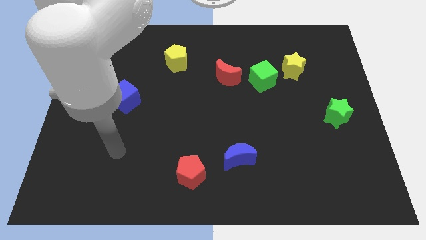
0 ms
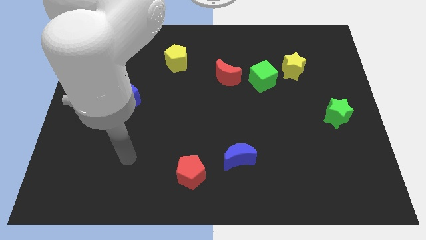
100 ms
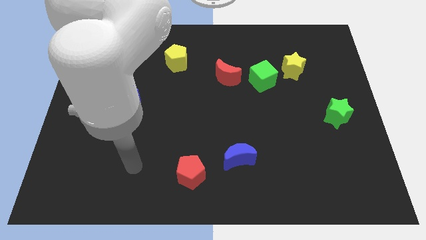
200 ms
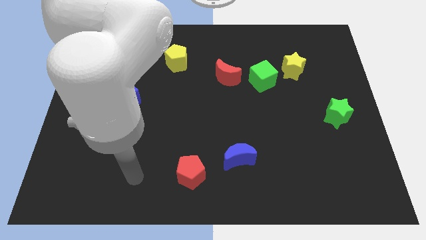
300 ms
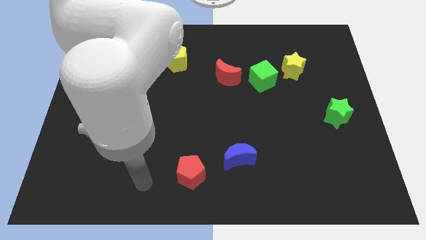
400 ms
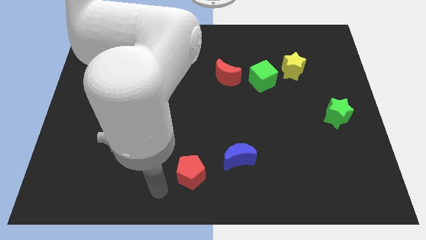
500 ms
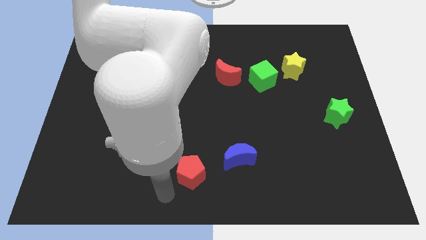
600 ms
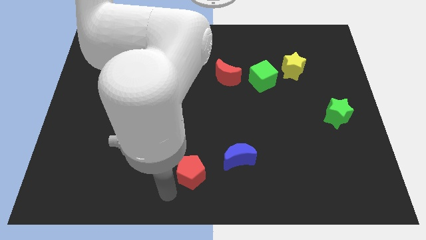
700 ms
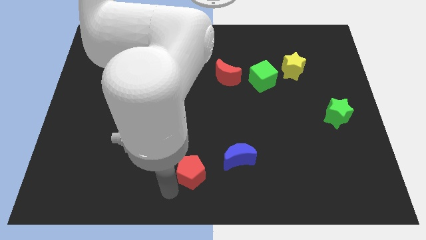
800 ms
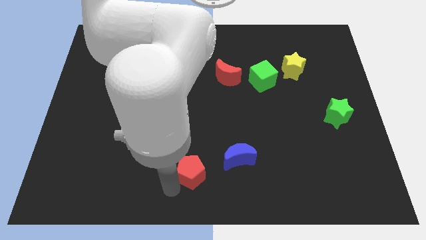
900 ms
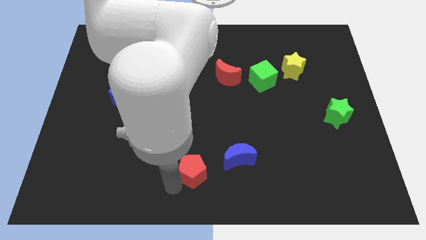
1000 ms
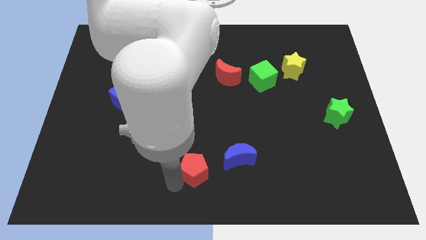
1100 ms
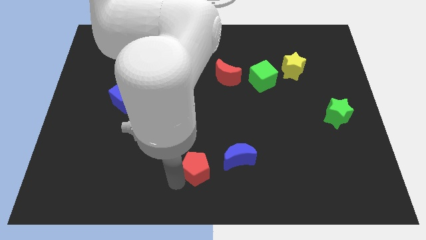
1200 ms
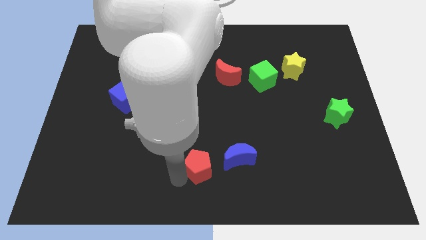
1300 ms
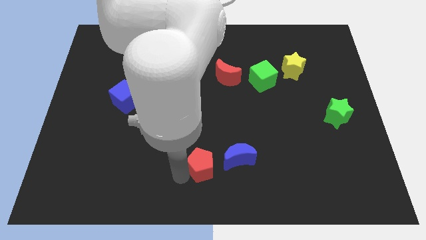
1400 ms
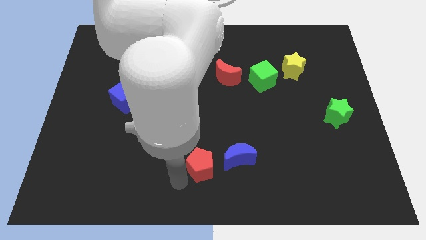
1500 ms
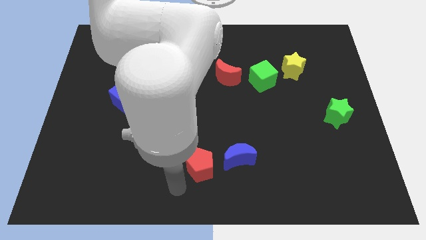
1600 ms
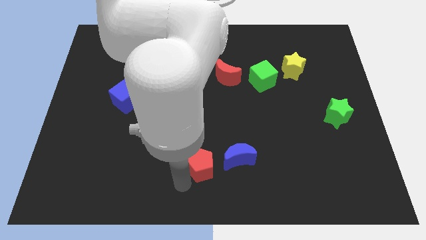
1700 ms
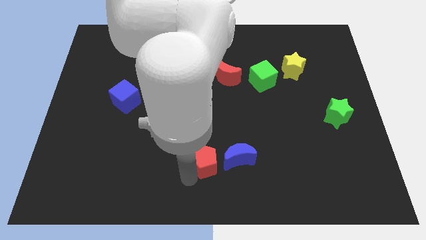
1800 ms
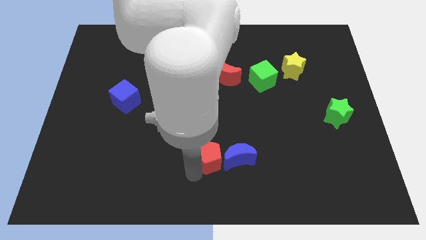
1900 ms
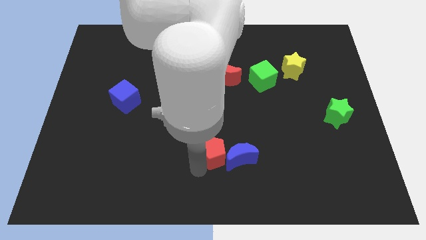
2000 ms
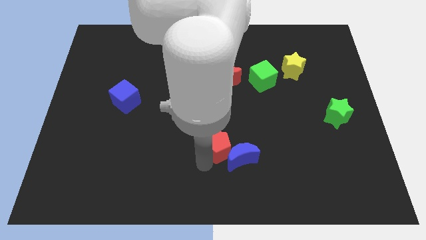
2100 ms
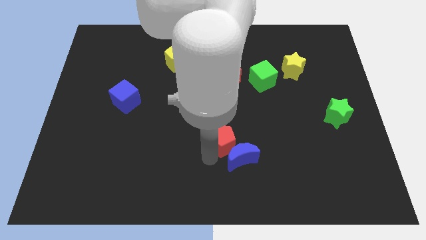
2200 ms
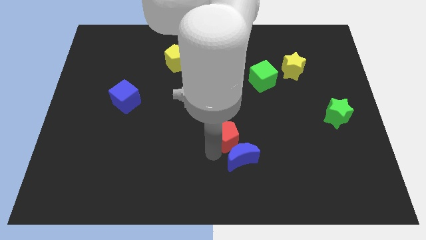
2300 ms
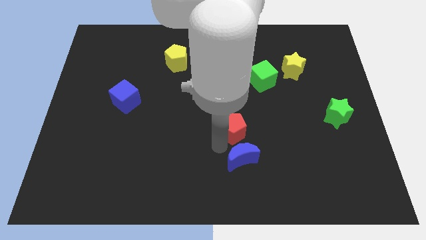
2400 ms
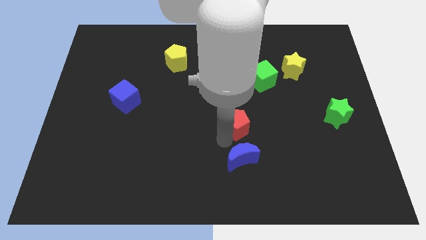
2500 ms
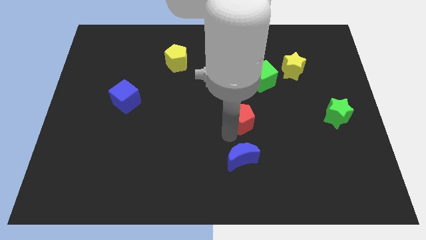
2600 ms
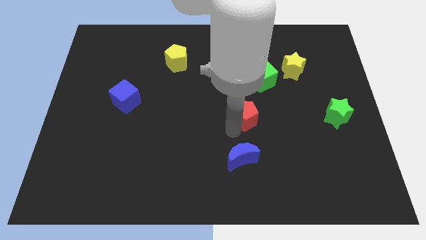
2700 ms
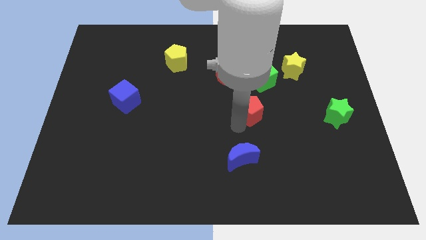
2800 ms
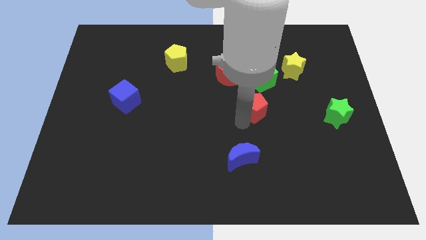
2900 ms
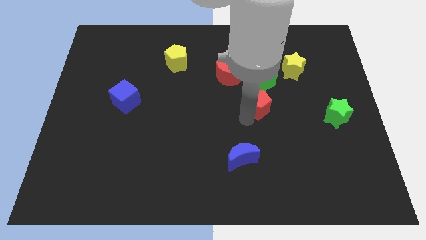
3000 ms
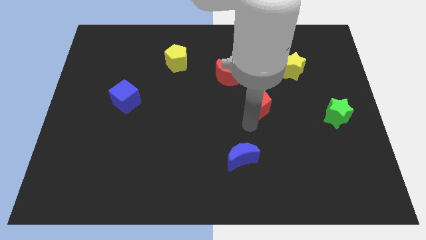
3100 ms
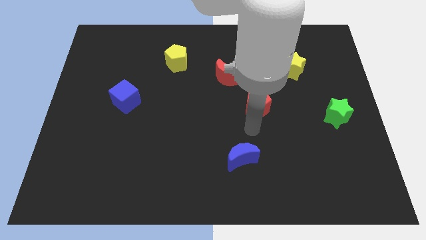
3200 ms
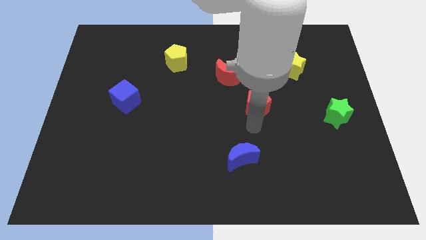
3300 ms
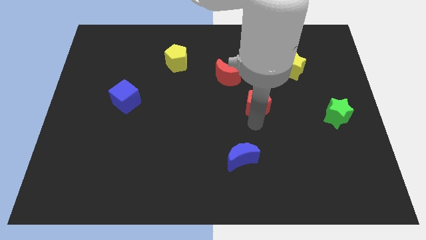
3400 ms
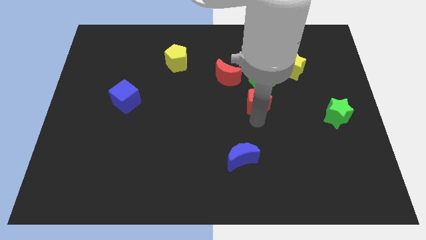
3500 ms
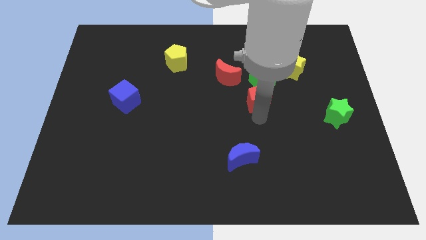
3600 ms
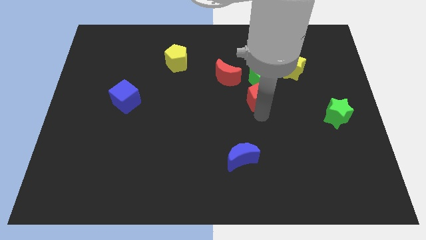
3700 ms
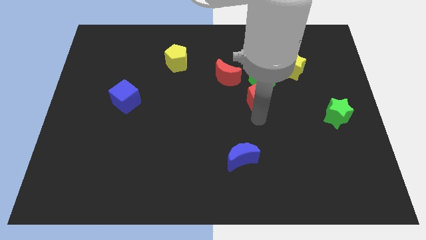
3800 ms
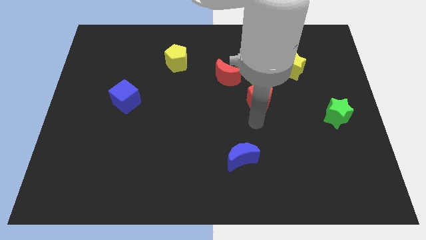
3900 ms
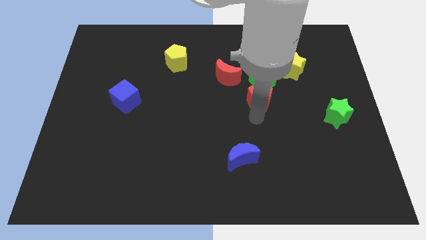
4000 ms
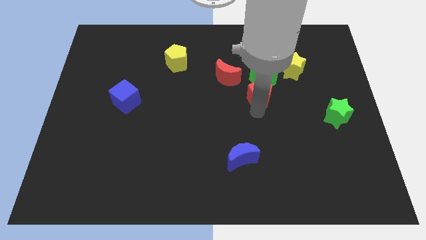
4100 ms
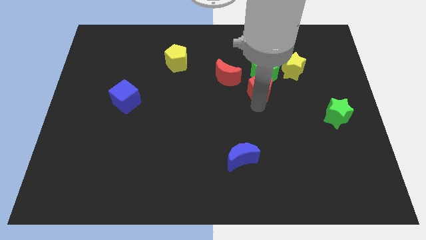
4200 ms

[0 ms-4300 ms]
put the red pentagon close to the green cube

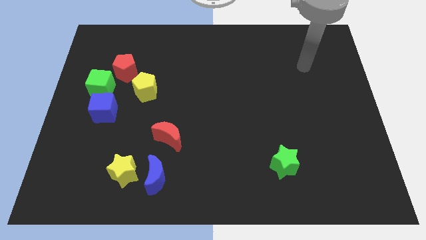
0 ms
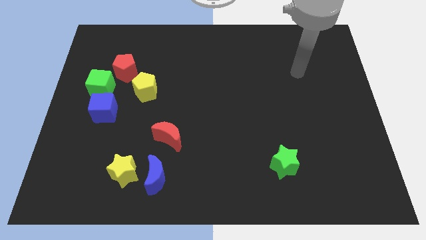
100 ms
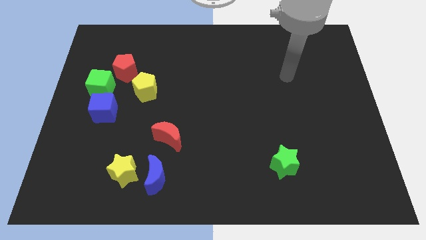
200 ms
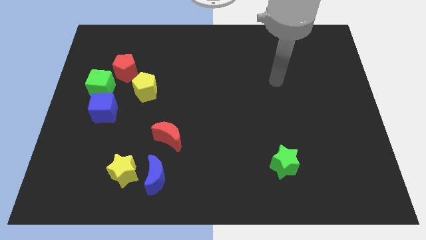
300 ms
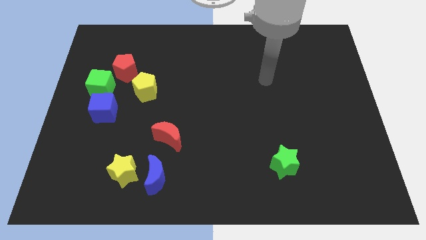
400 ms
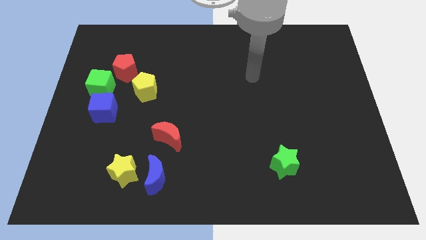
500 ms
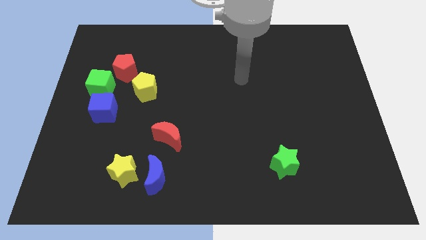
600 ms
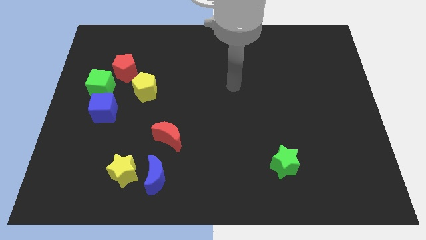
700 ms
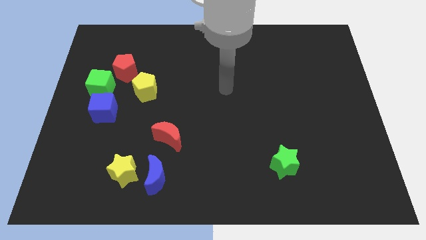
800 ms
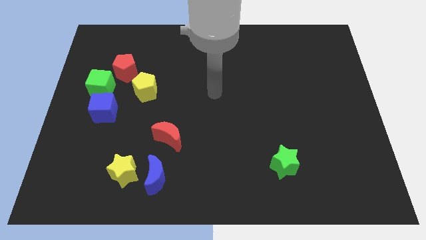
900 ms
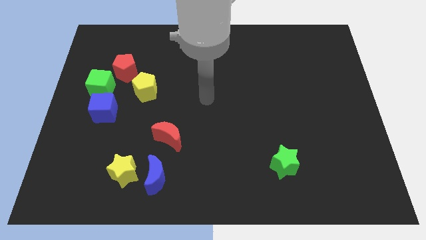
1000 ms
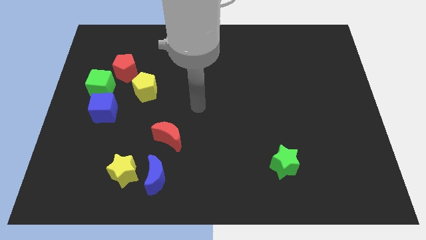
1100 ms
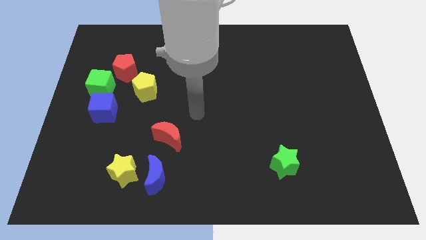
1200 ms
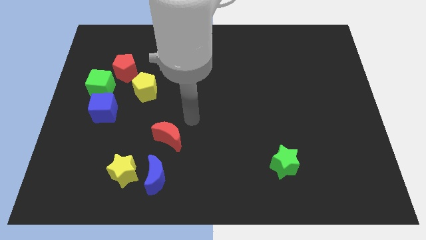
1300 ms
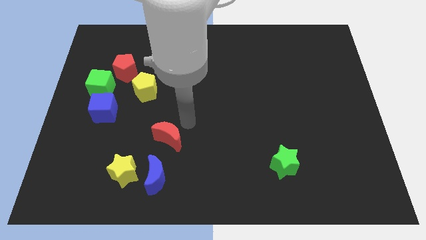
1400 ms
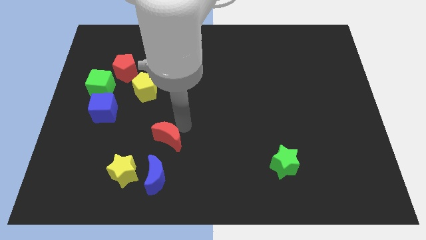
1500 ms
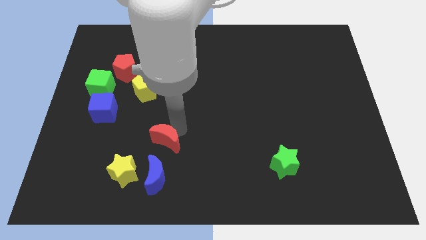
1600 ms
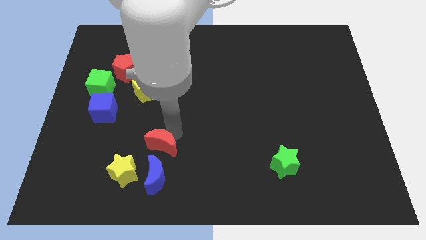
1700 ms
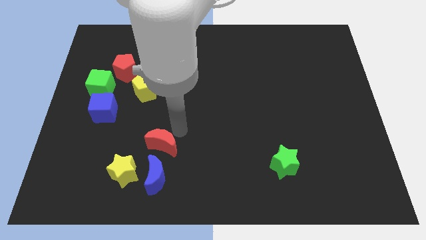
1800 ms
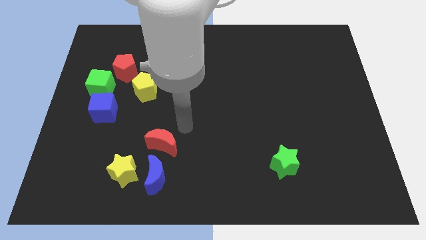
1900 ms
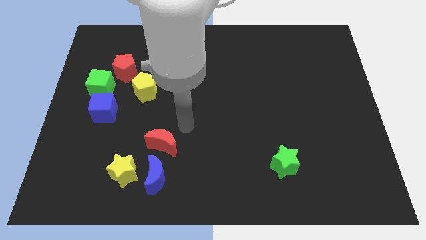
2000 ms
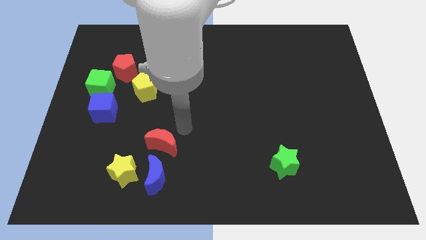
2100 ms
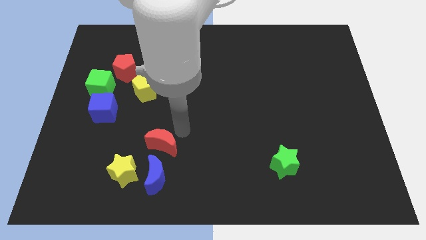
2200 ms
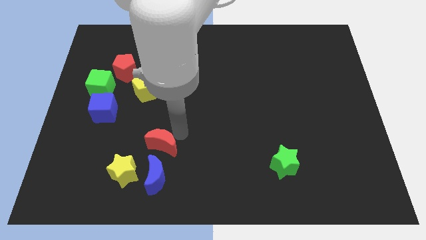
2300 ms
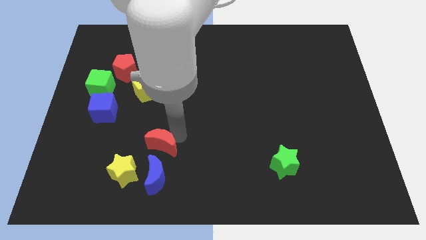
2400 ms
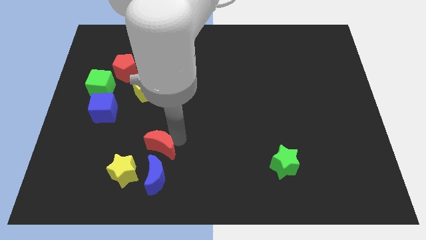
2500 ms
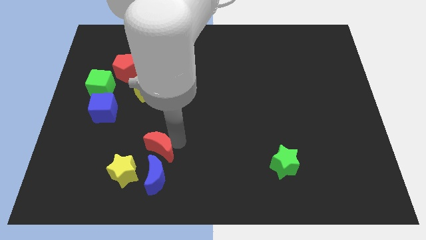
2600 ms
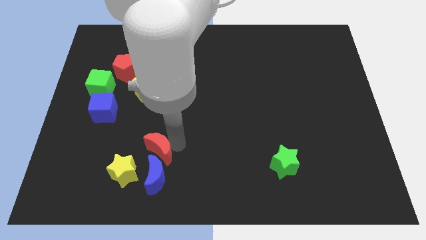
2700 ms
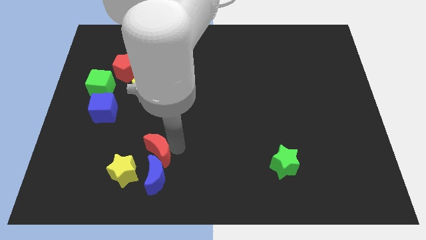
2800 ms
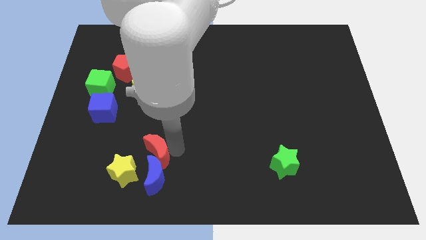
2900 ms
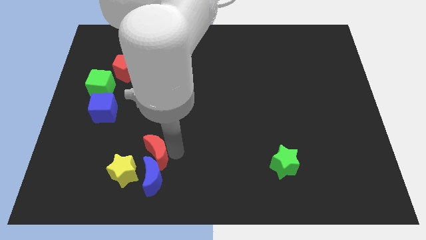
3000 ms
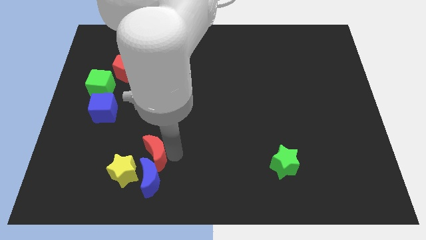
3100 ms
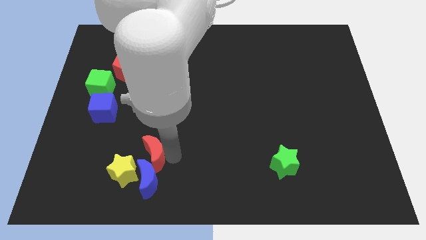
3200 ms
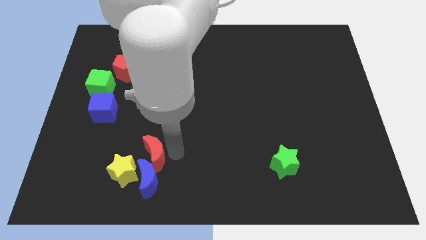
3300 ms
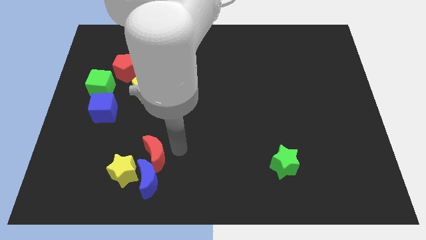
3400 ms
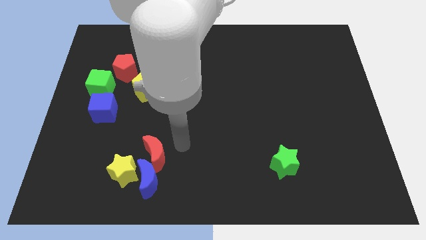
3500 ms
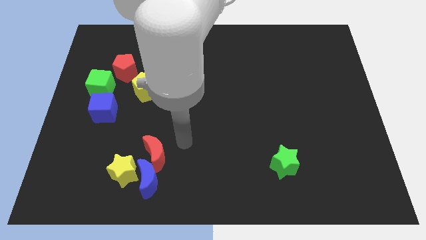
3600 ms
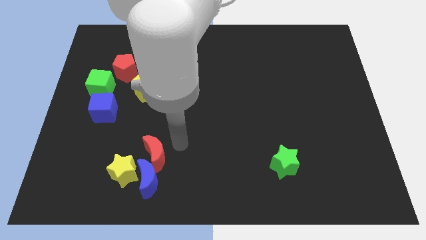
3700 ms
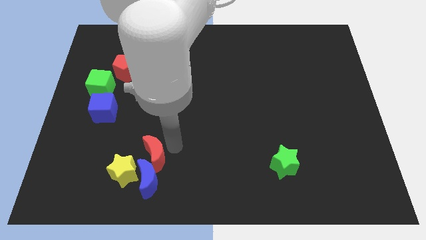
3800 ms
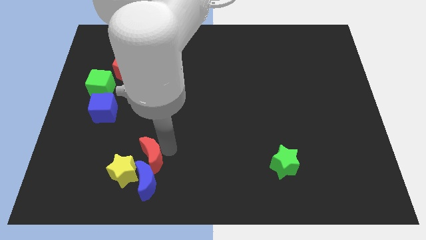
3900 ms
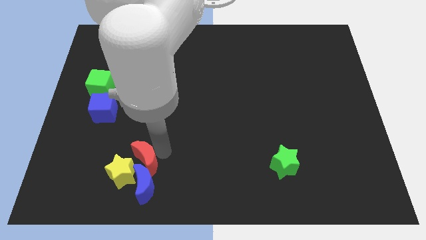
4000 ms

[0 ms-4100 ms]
slide the red moon towards the yellow star
